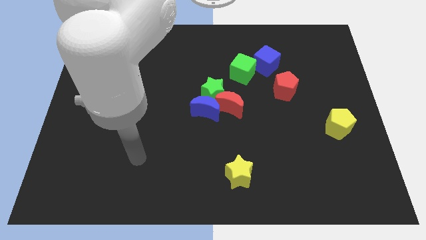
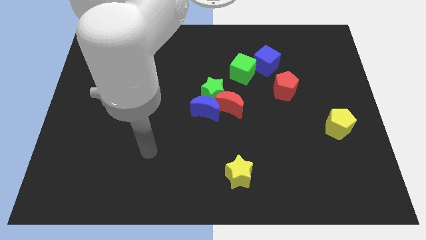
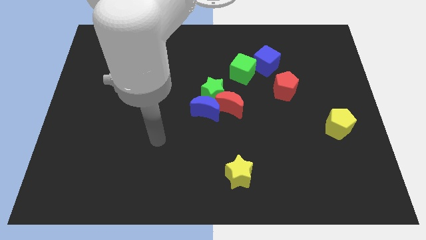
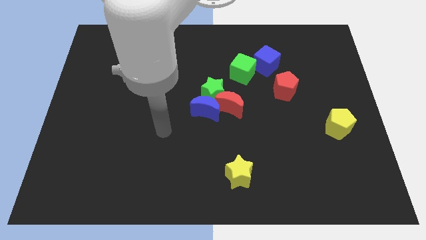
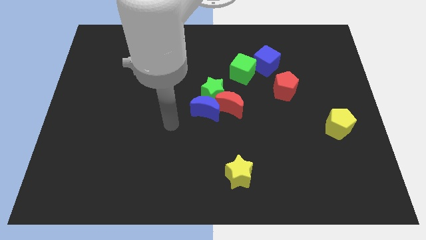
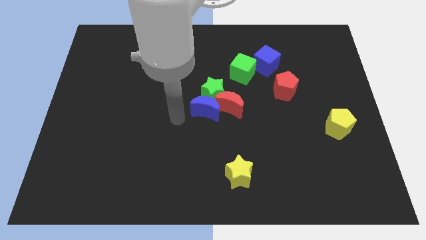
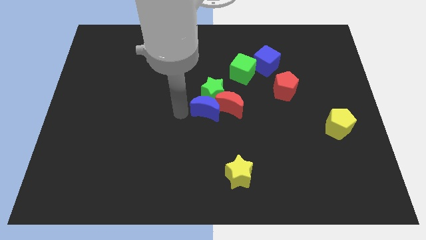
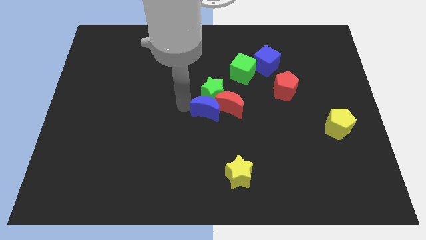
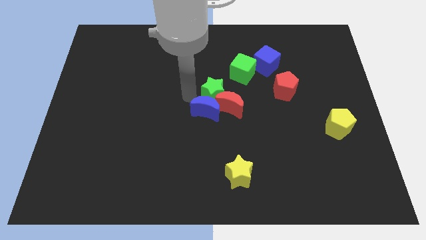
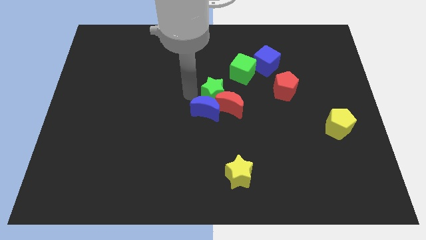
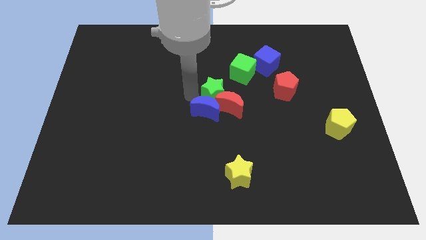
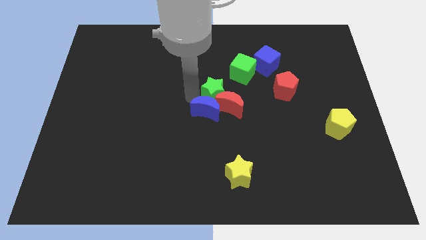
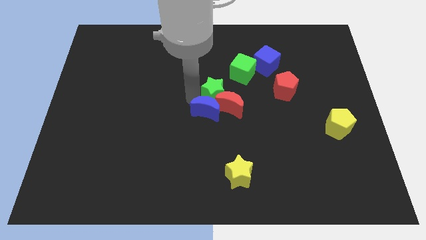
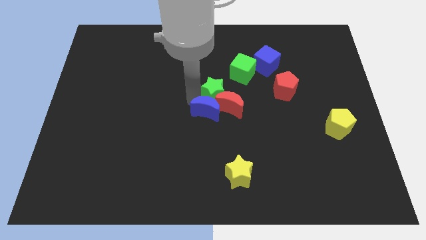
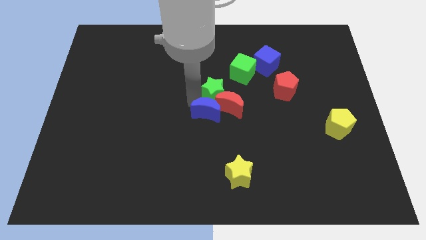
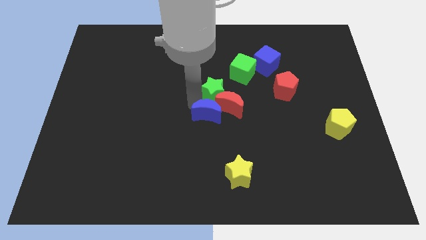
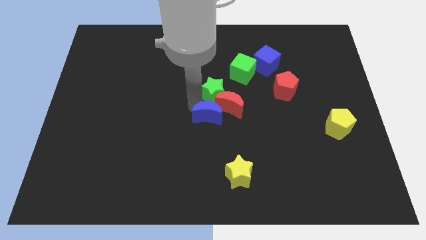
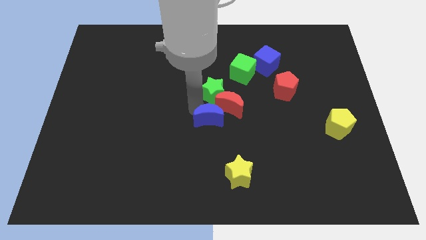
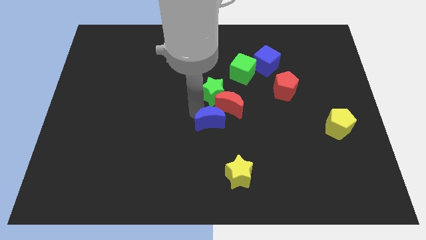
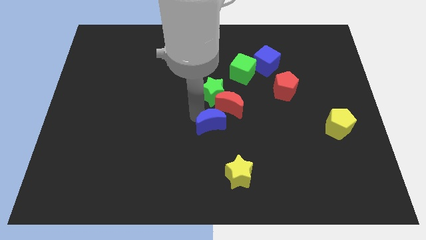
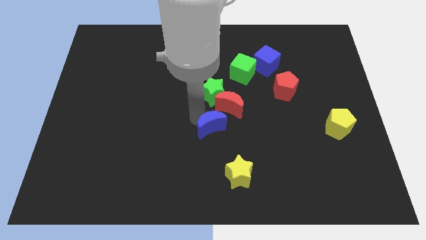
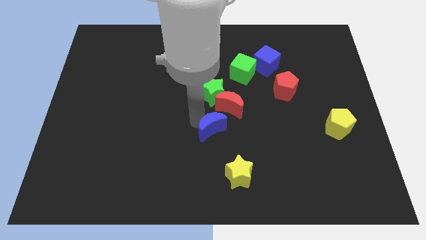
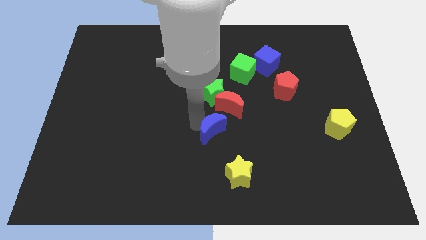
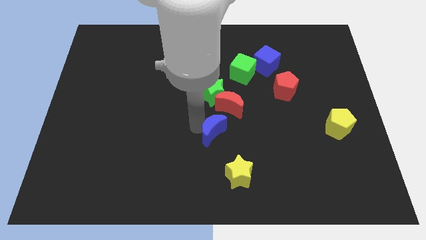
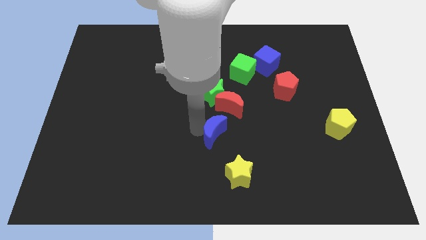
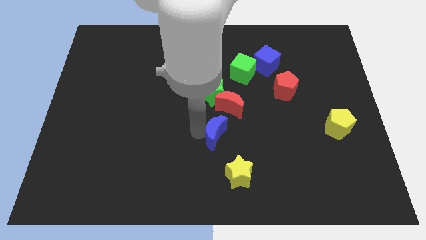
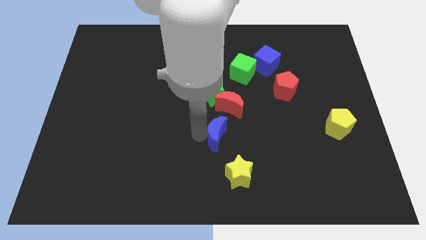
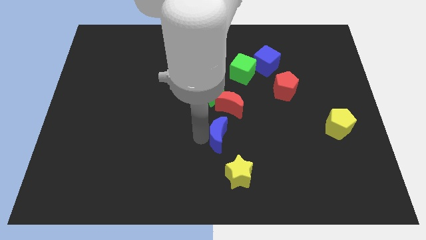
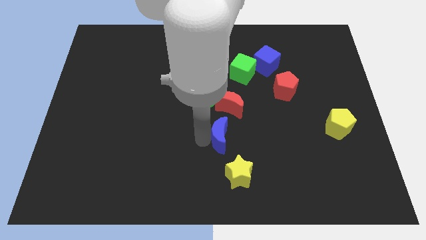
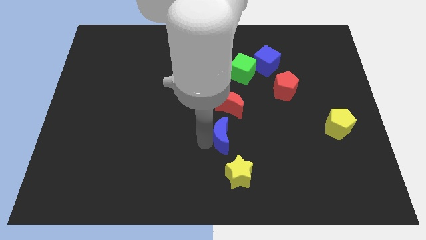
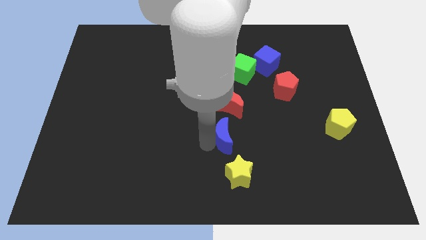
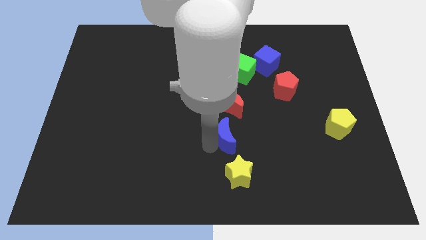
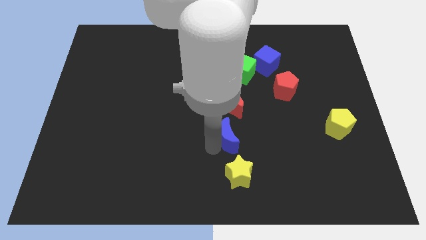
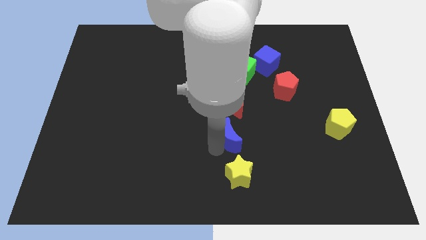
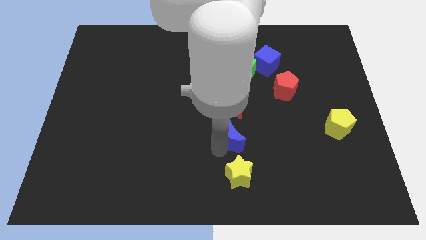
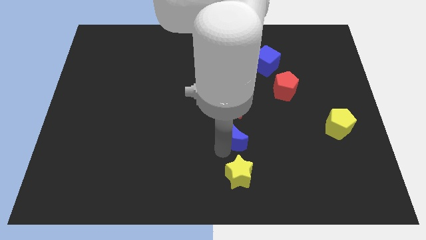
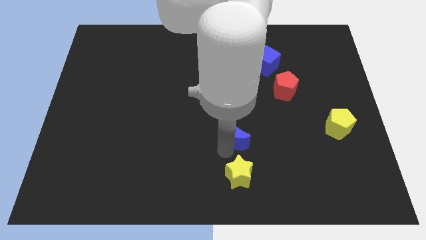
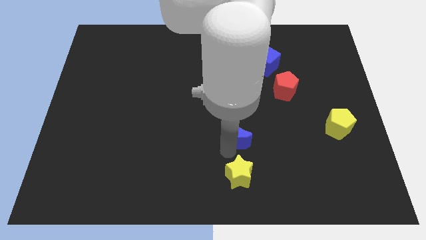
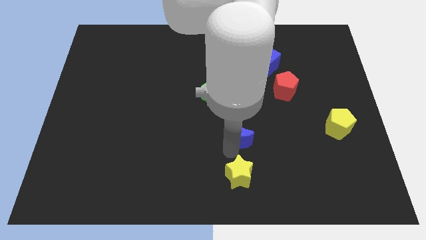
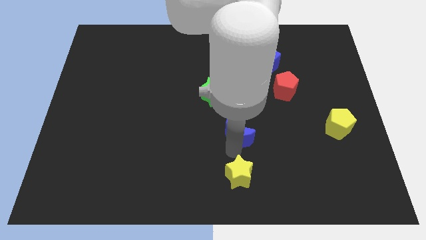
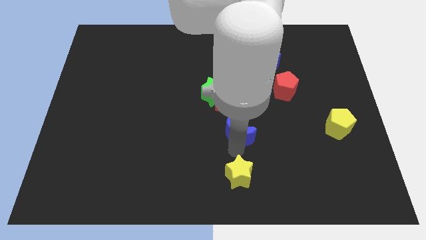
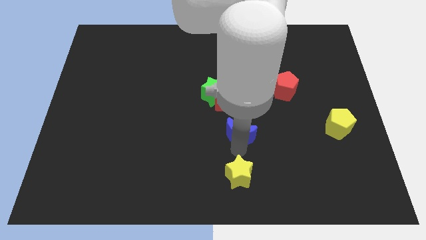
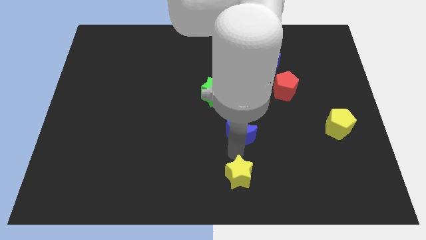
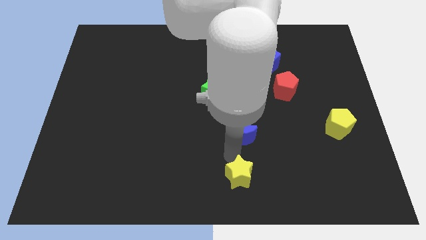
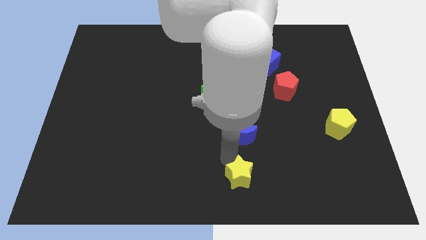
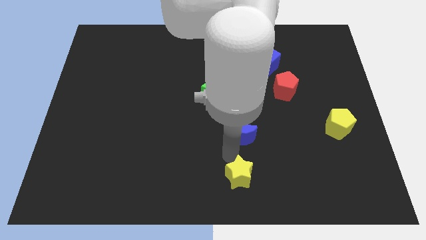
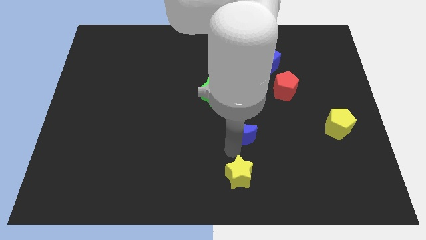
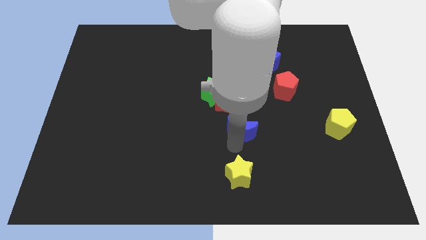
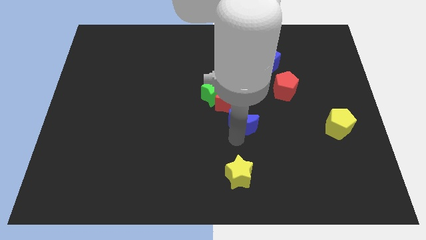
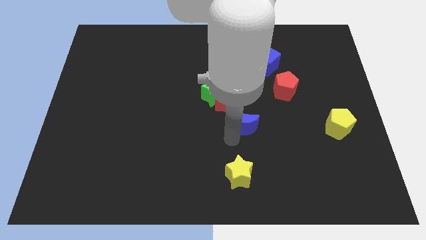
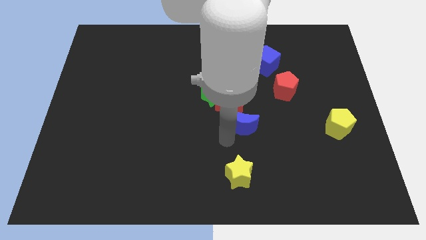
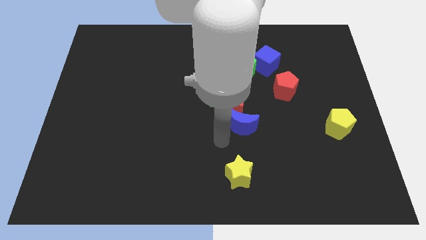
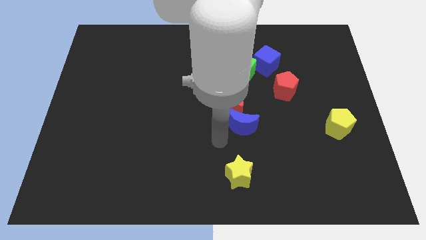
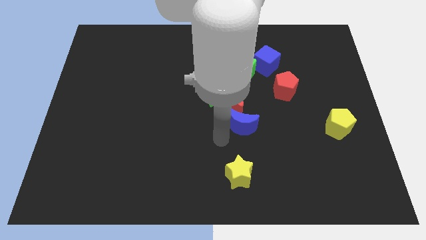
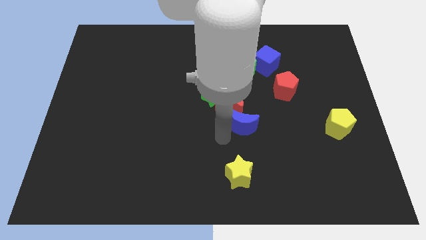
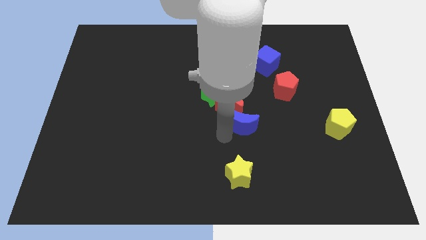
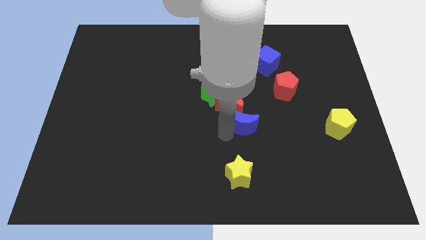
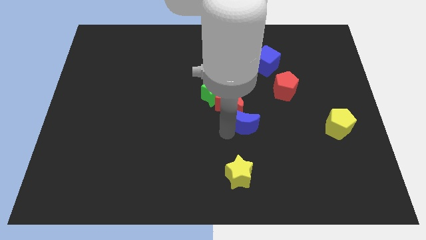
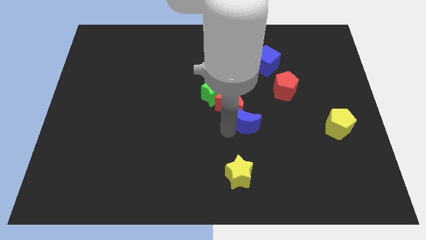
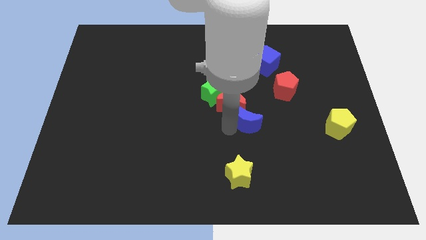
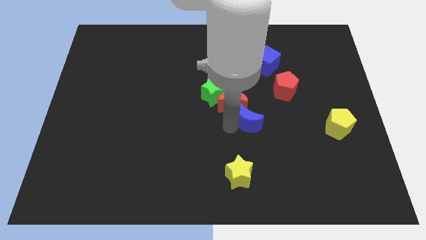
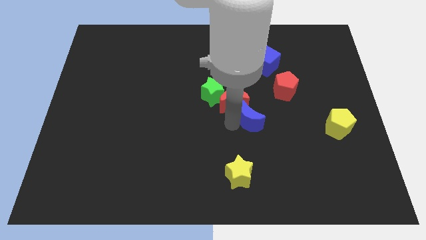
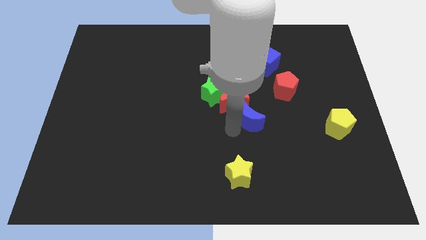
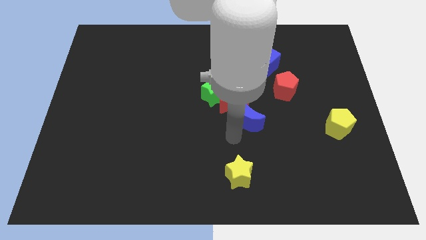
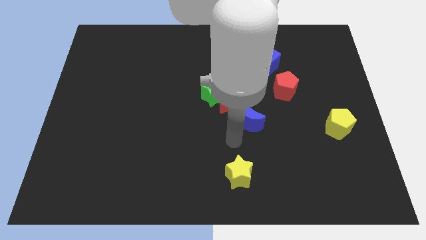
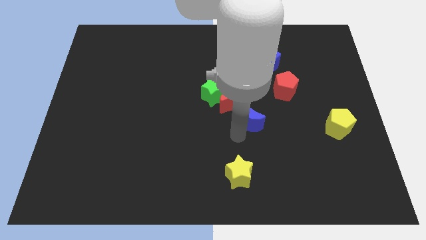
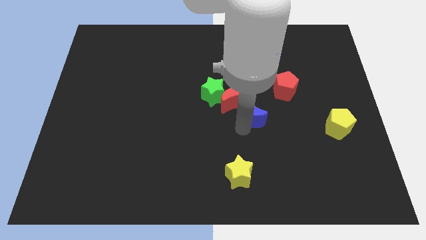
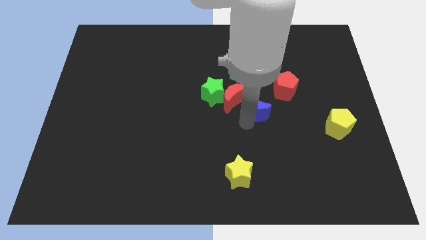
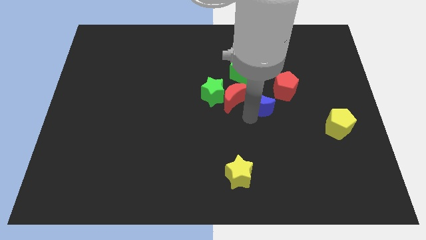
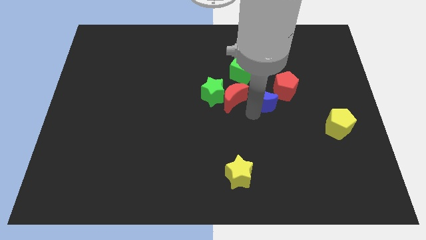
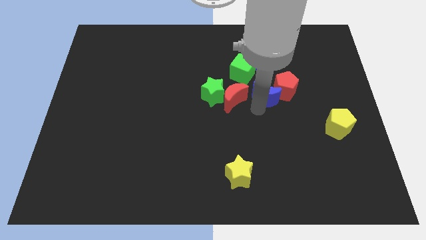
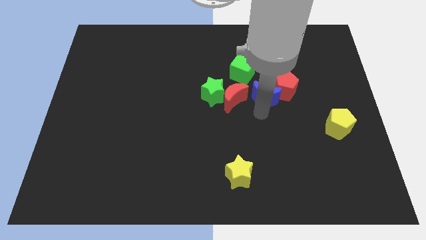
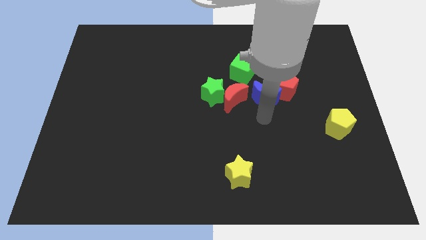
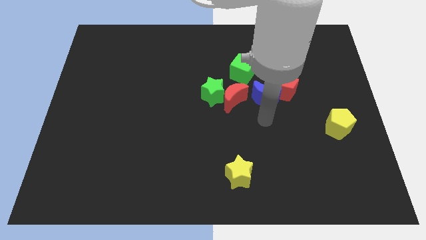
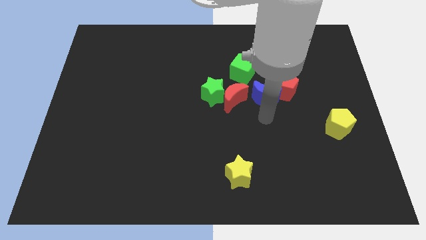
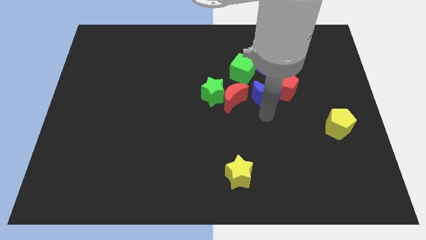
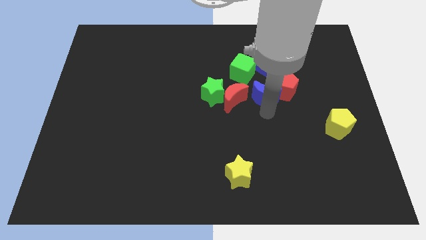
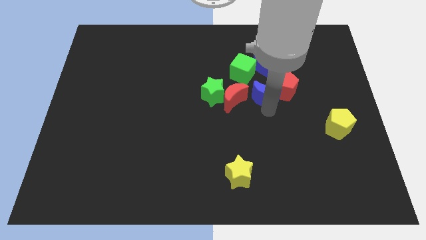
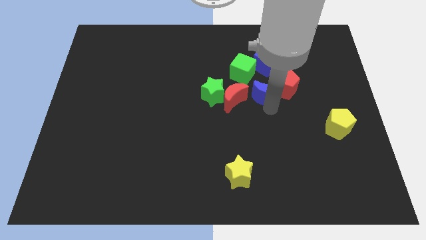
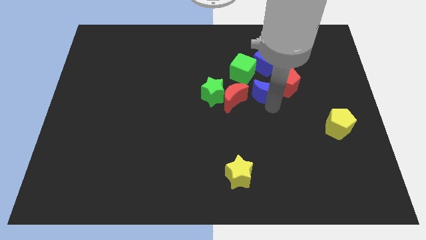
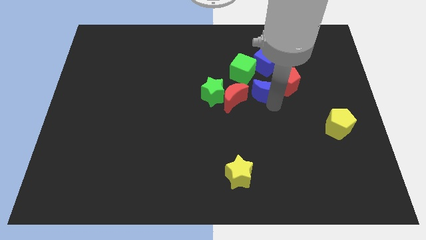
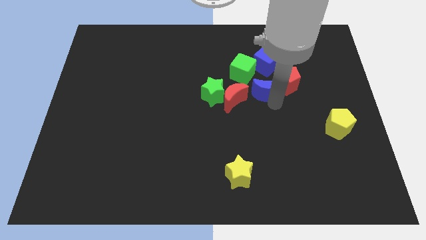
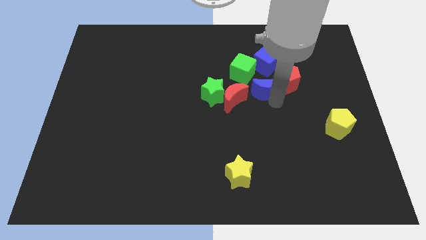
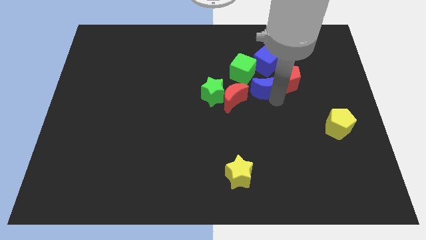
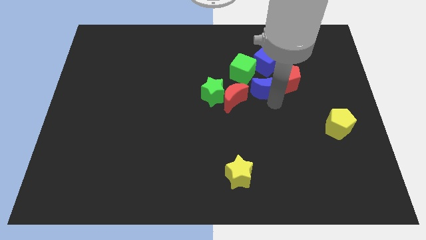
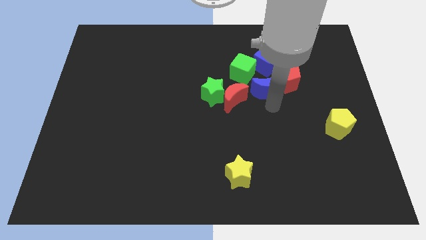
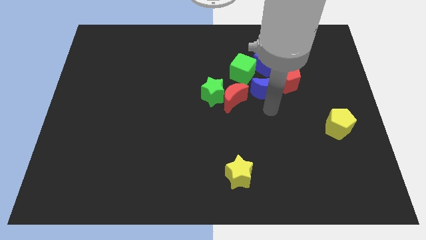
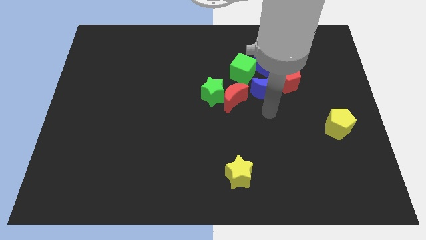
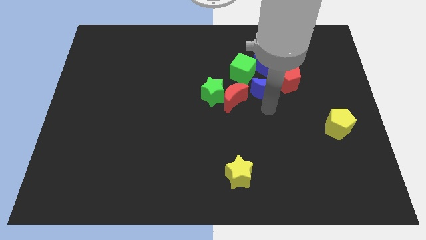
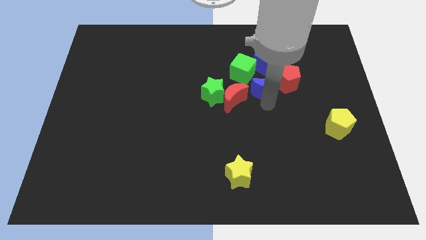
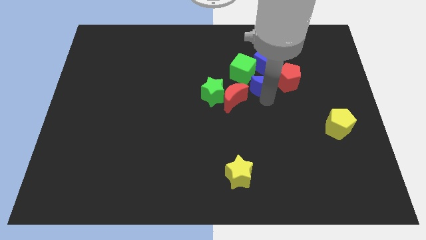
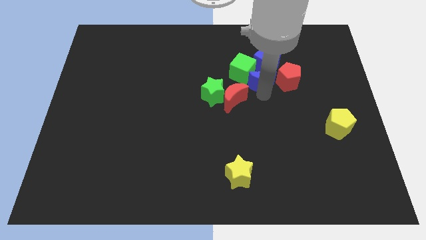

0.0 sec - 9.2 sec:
slide the blue moon to the right side of the green cube
